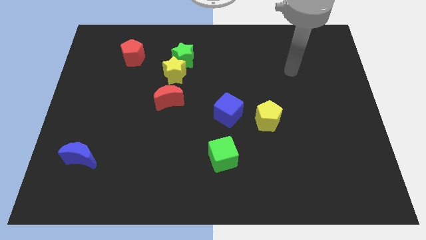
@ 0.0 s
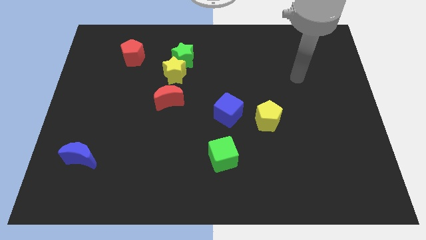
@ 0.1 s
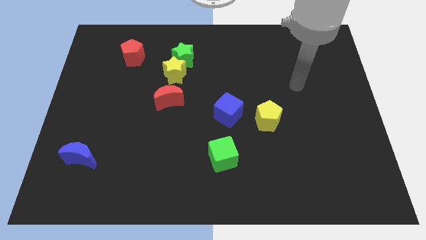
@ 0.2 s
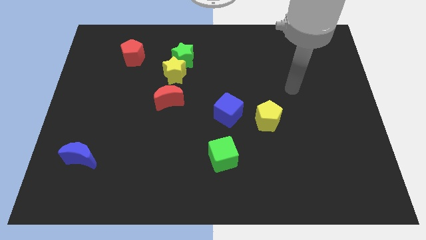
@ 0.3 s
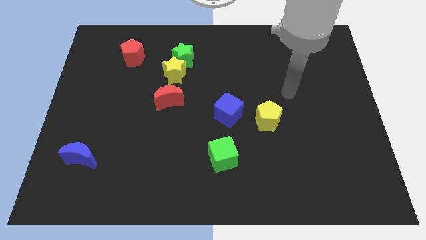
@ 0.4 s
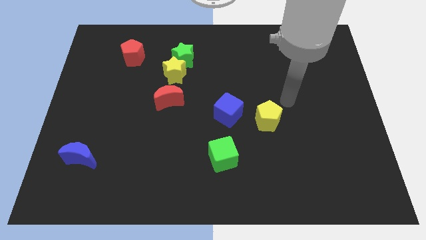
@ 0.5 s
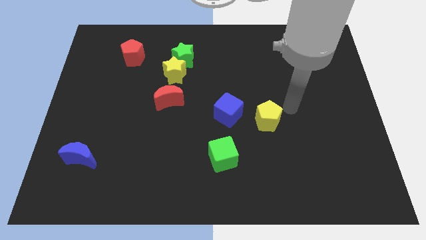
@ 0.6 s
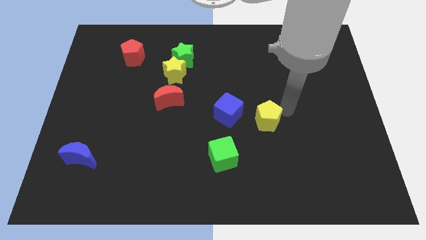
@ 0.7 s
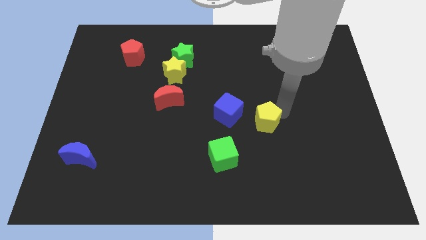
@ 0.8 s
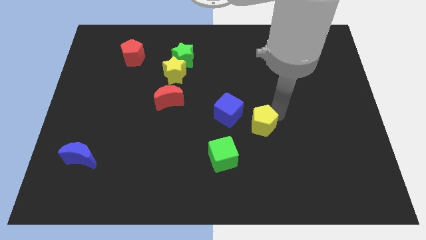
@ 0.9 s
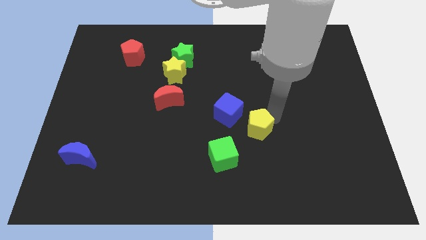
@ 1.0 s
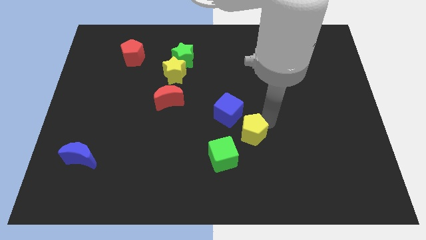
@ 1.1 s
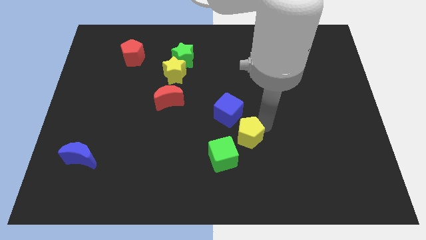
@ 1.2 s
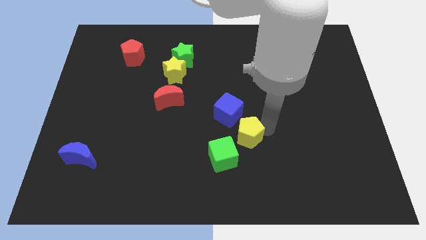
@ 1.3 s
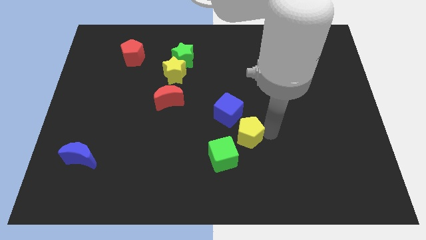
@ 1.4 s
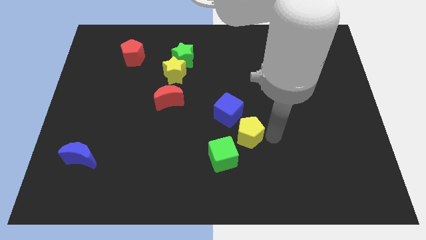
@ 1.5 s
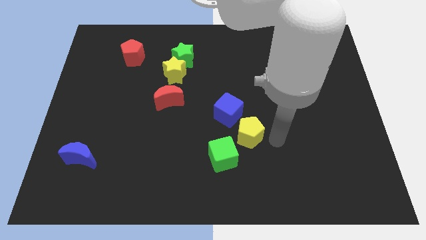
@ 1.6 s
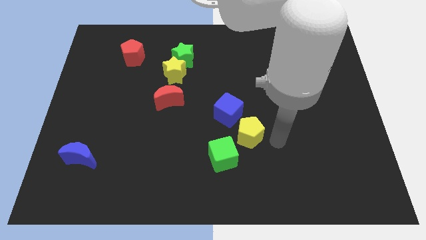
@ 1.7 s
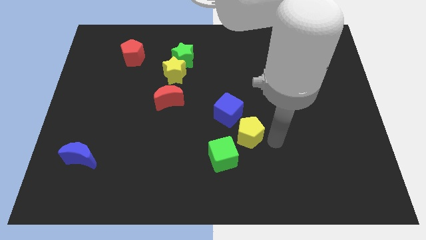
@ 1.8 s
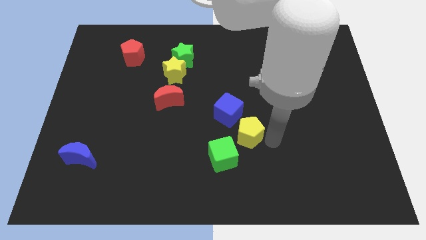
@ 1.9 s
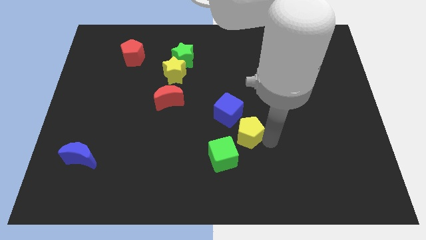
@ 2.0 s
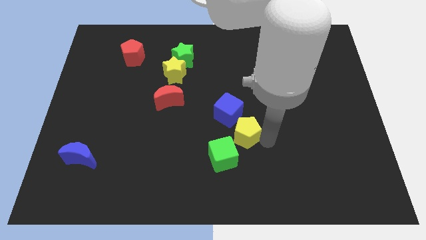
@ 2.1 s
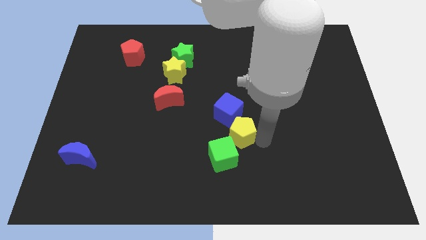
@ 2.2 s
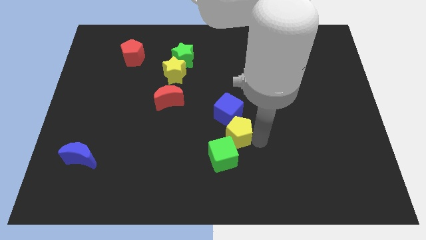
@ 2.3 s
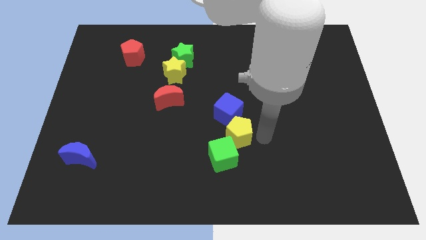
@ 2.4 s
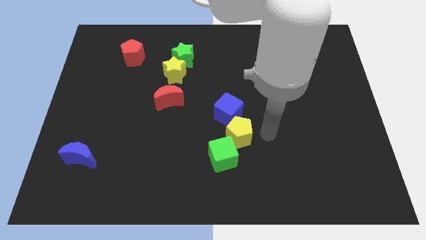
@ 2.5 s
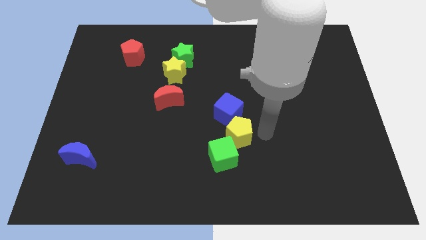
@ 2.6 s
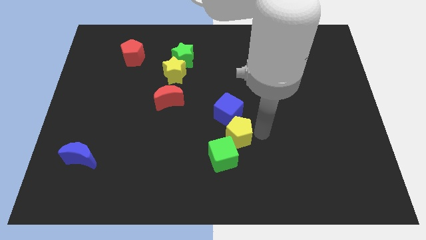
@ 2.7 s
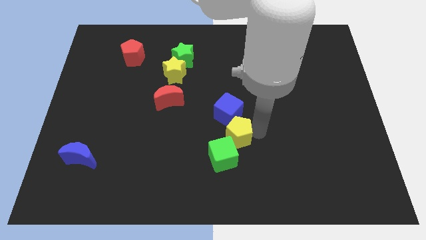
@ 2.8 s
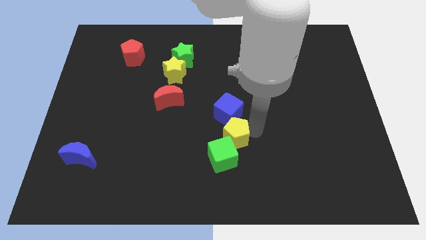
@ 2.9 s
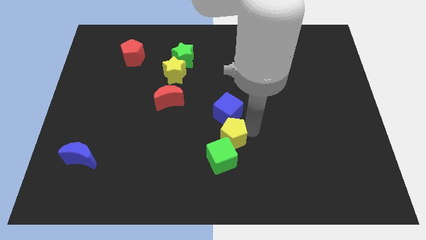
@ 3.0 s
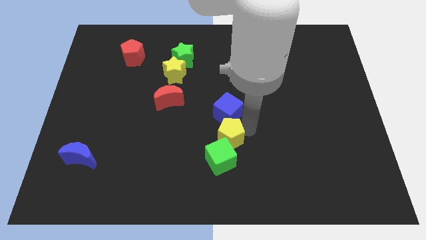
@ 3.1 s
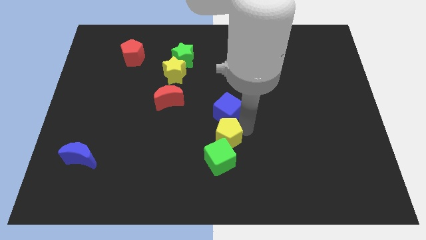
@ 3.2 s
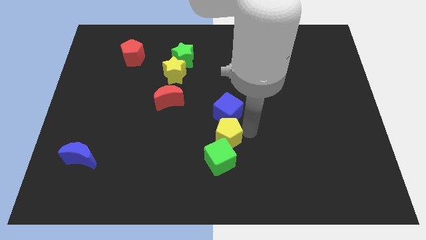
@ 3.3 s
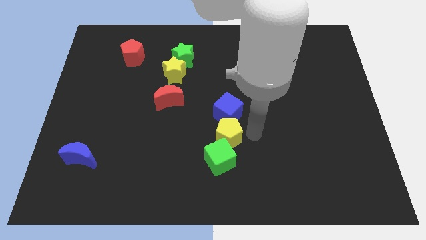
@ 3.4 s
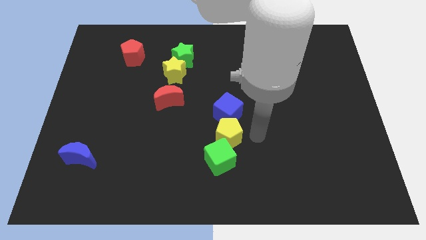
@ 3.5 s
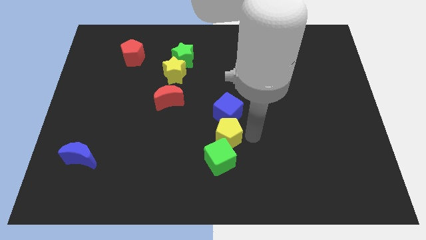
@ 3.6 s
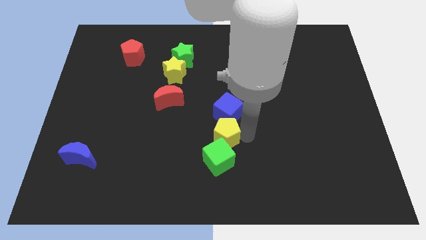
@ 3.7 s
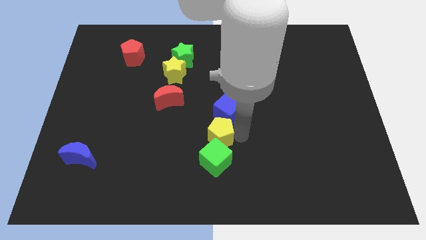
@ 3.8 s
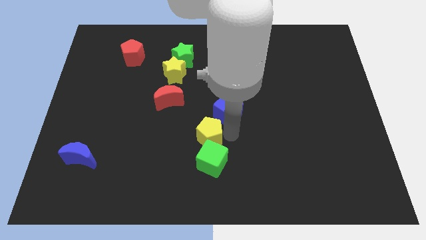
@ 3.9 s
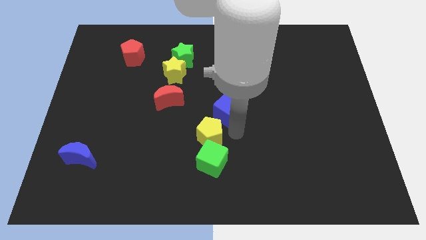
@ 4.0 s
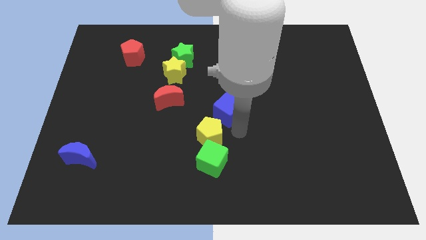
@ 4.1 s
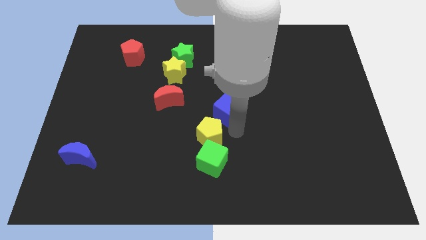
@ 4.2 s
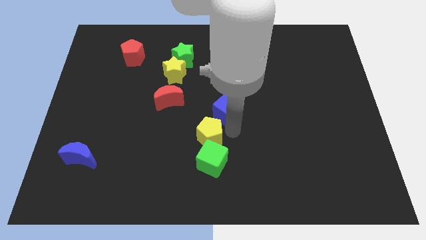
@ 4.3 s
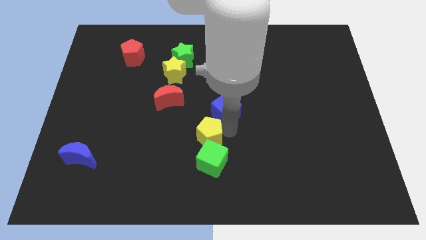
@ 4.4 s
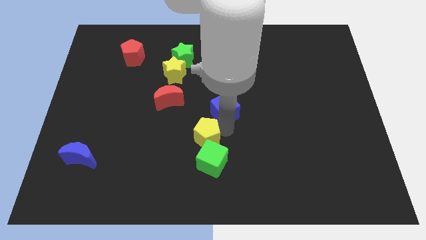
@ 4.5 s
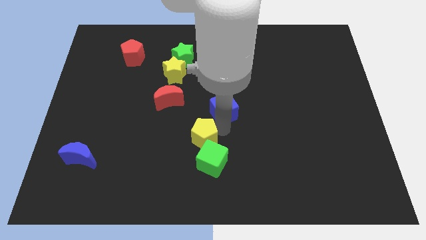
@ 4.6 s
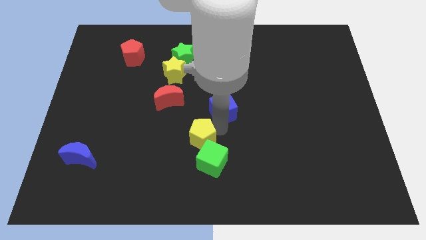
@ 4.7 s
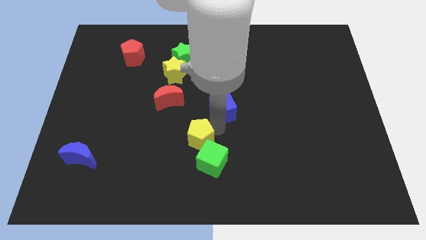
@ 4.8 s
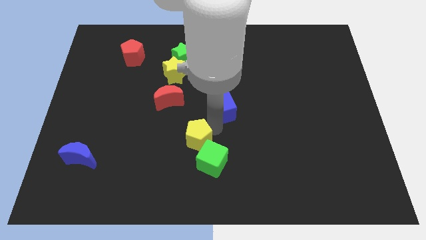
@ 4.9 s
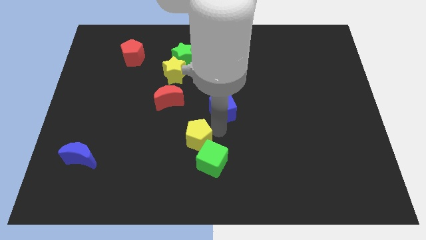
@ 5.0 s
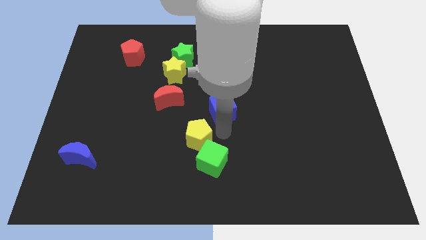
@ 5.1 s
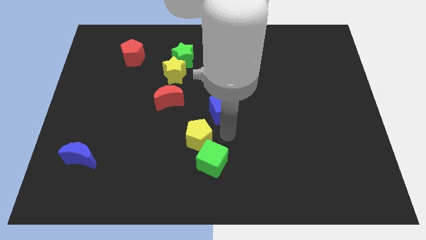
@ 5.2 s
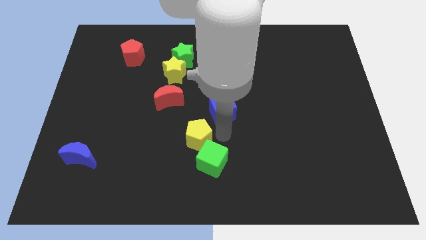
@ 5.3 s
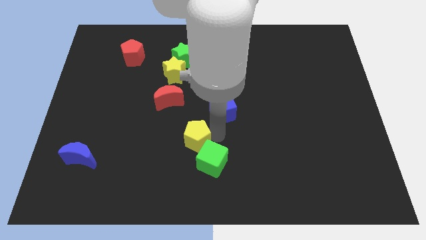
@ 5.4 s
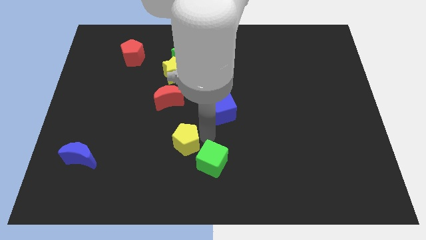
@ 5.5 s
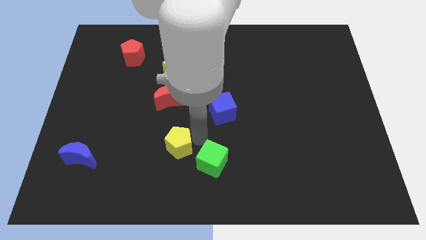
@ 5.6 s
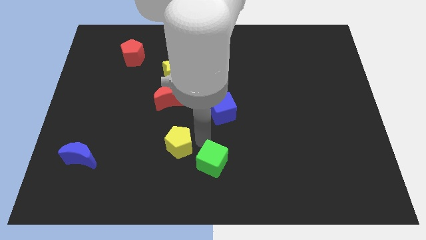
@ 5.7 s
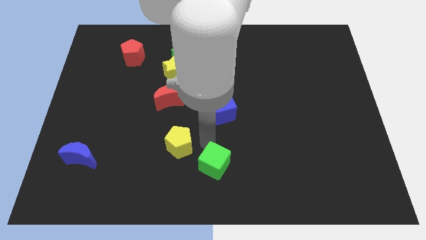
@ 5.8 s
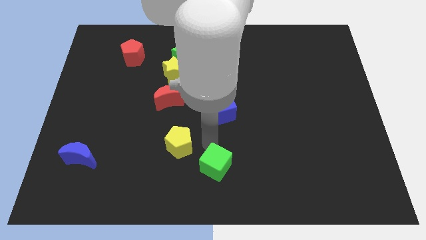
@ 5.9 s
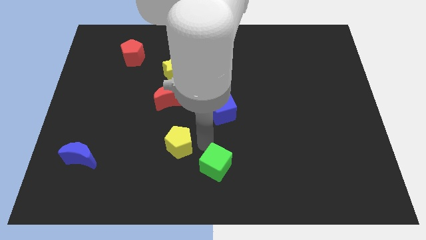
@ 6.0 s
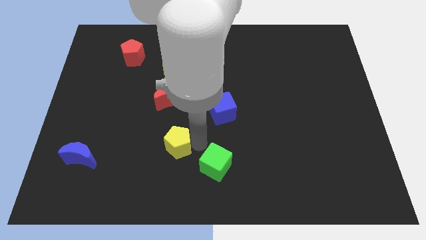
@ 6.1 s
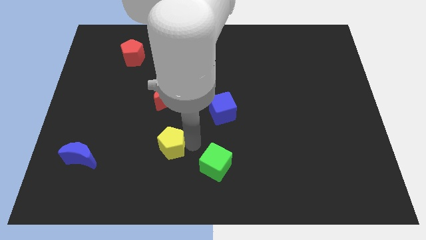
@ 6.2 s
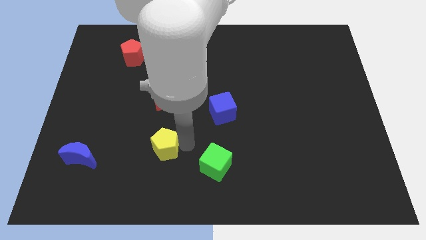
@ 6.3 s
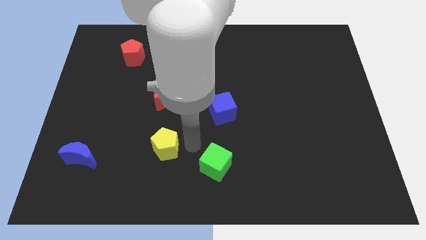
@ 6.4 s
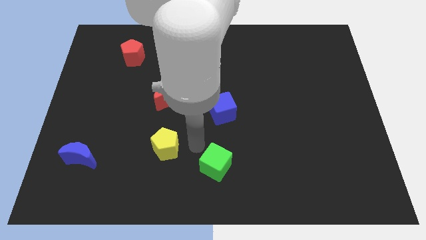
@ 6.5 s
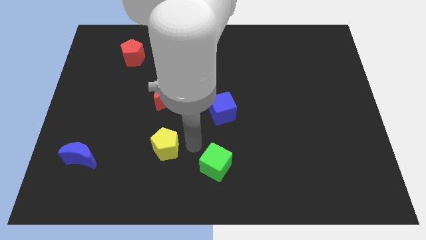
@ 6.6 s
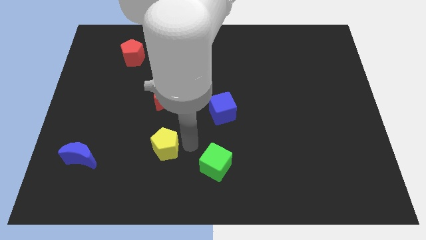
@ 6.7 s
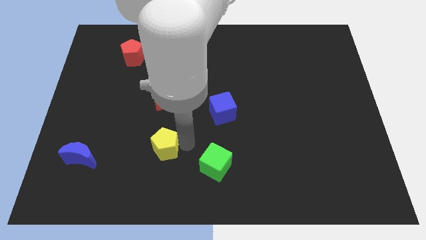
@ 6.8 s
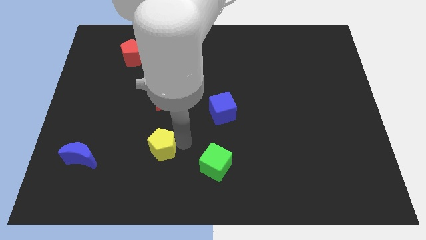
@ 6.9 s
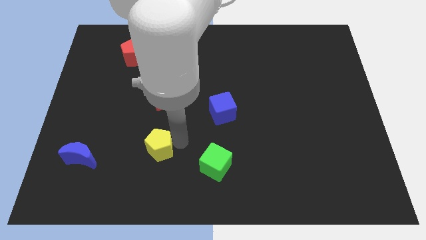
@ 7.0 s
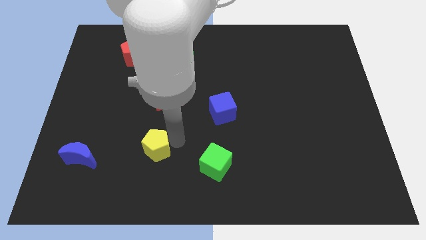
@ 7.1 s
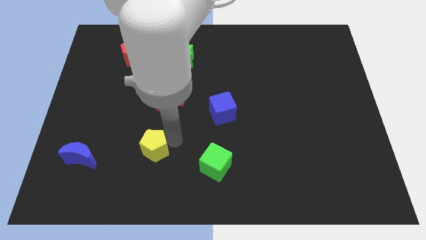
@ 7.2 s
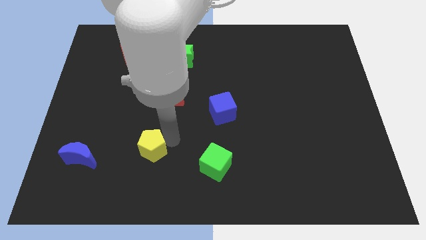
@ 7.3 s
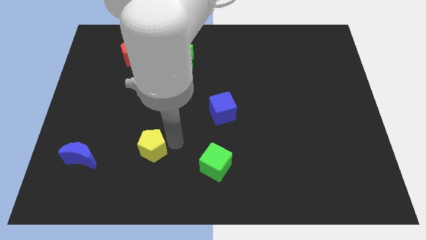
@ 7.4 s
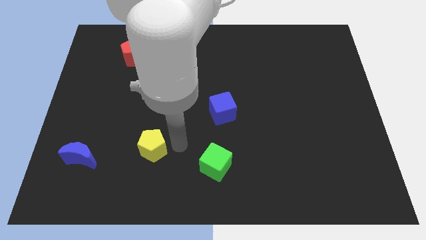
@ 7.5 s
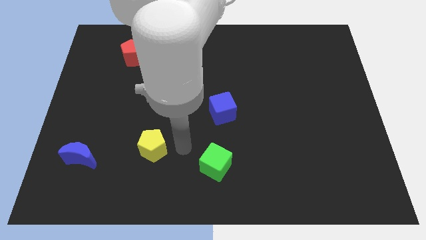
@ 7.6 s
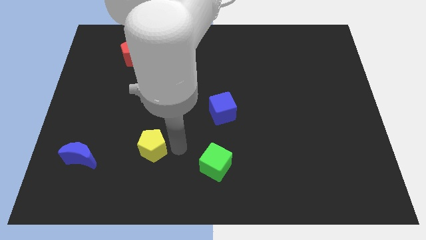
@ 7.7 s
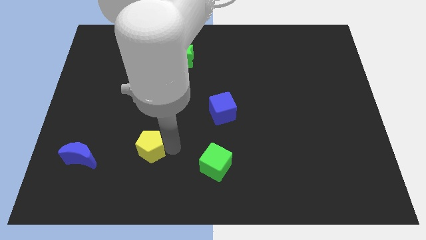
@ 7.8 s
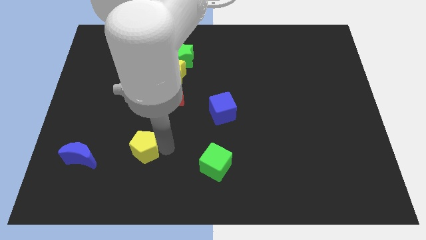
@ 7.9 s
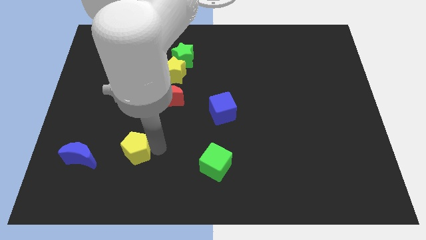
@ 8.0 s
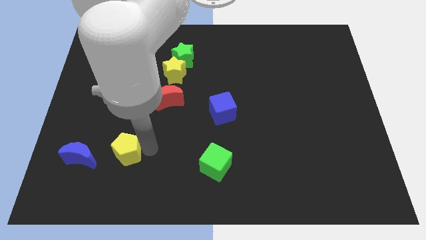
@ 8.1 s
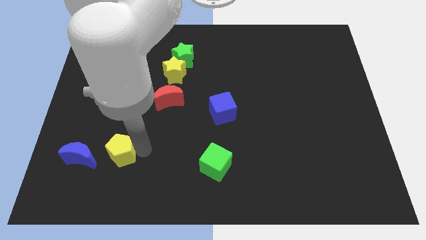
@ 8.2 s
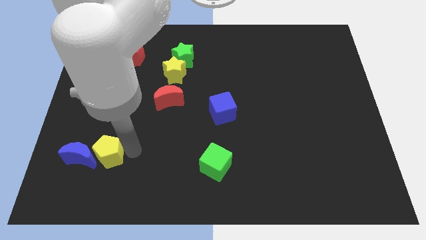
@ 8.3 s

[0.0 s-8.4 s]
move the yellow pentagon towards the blue moon
